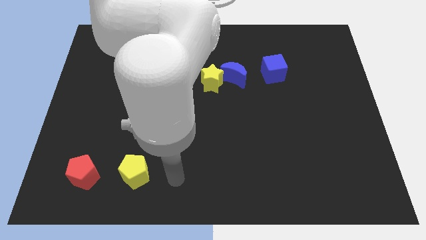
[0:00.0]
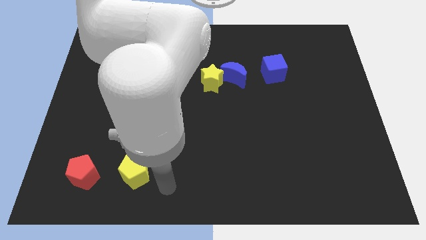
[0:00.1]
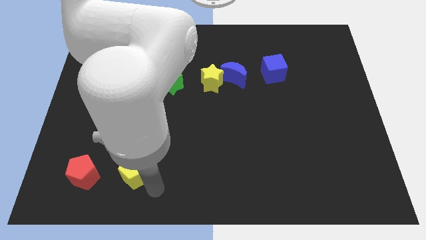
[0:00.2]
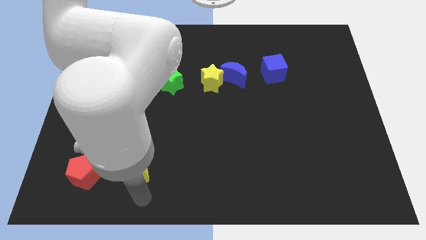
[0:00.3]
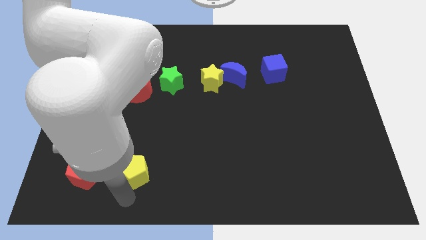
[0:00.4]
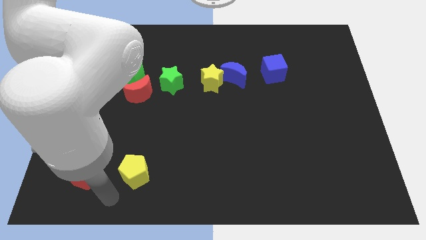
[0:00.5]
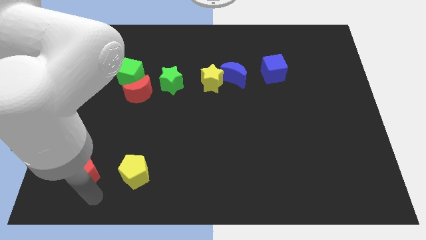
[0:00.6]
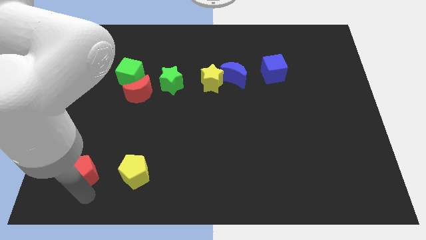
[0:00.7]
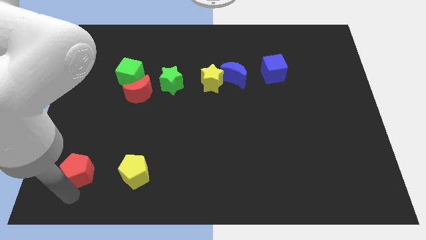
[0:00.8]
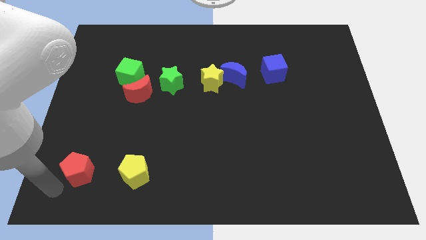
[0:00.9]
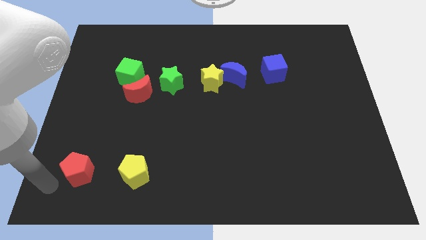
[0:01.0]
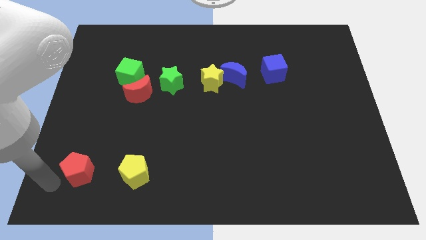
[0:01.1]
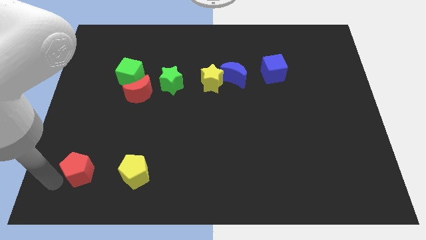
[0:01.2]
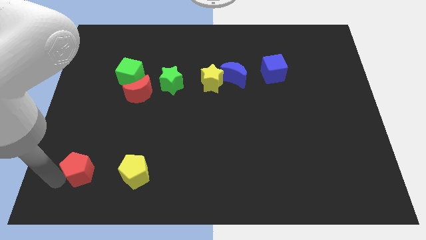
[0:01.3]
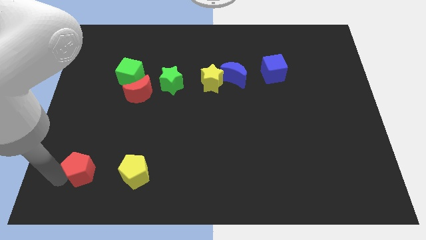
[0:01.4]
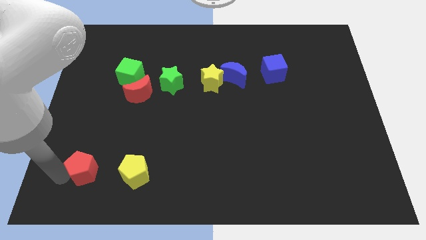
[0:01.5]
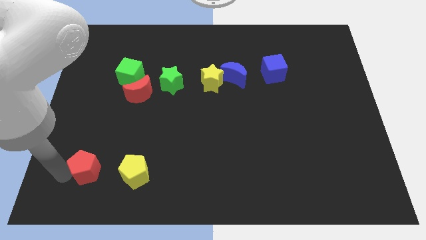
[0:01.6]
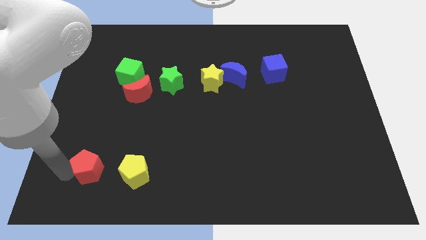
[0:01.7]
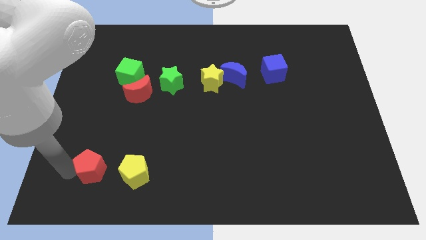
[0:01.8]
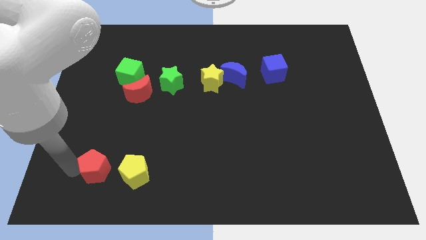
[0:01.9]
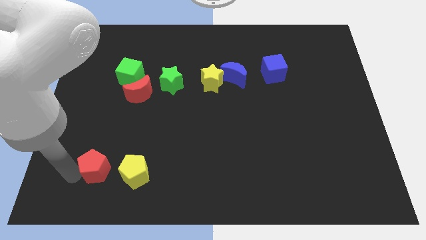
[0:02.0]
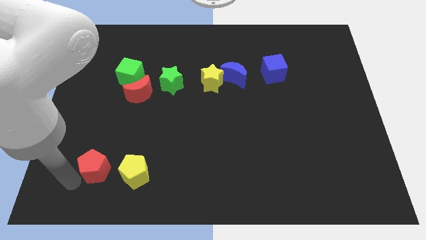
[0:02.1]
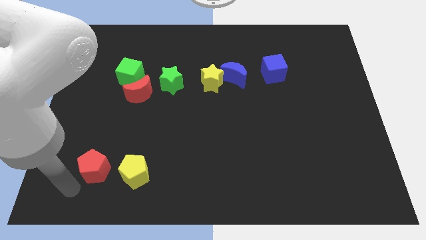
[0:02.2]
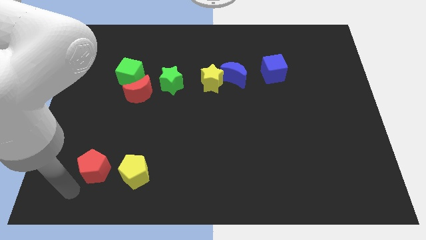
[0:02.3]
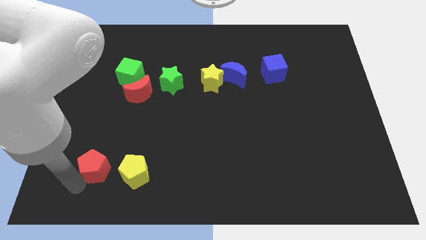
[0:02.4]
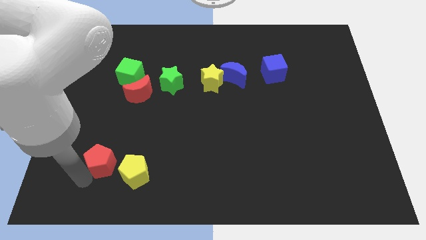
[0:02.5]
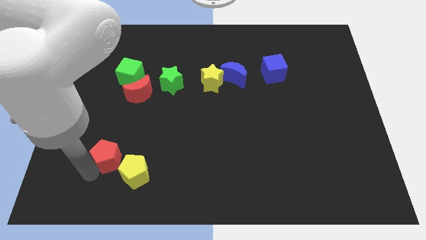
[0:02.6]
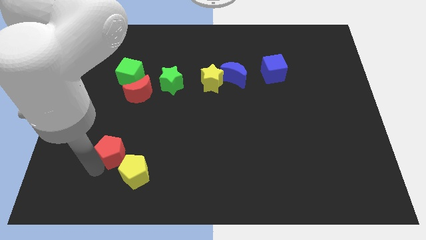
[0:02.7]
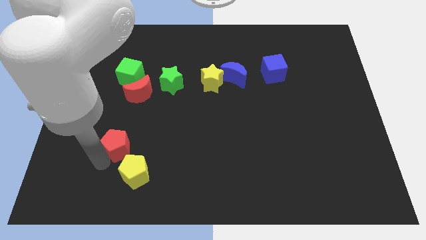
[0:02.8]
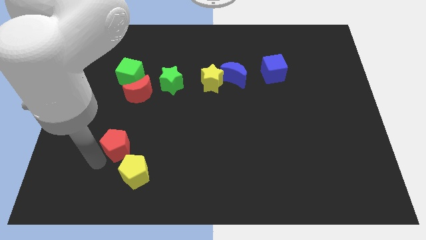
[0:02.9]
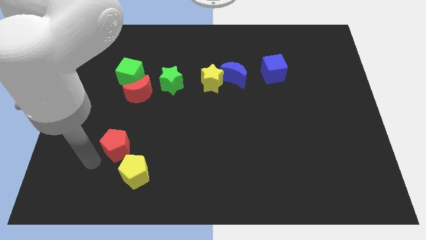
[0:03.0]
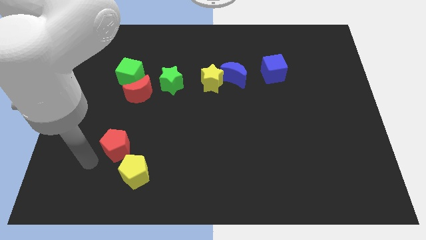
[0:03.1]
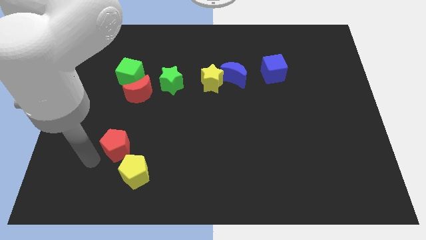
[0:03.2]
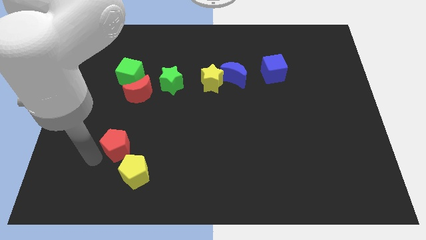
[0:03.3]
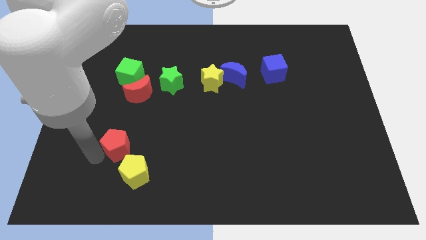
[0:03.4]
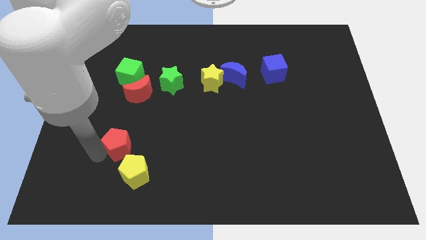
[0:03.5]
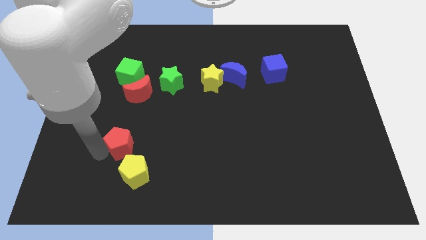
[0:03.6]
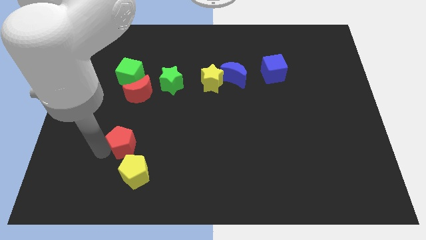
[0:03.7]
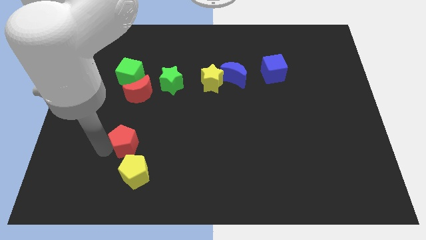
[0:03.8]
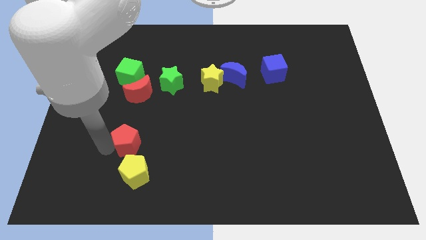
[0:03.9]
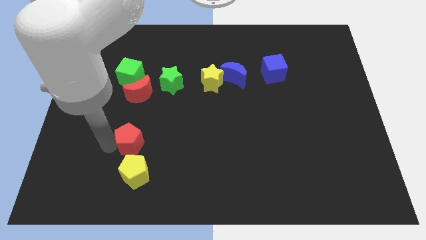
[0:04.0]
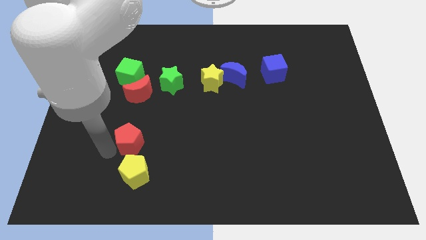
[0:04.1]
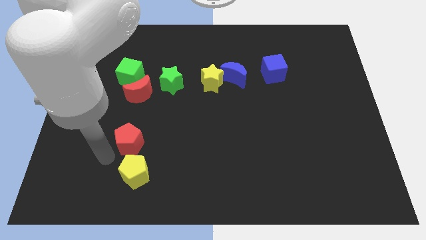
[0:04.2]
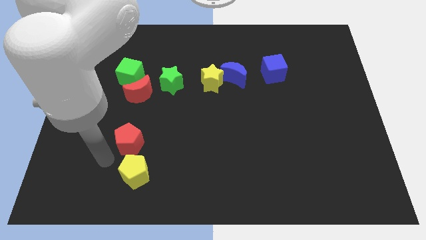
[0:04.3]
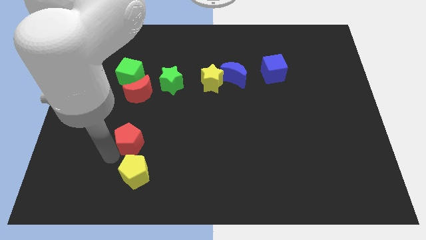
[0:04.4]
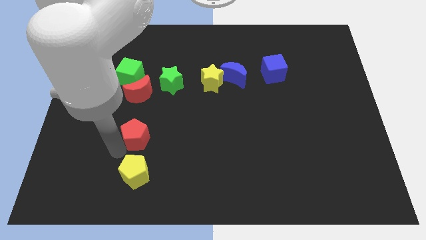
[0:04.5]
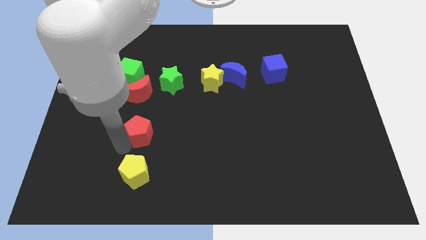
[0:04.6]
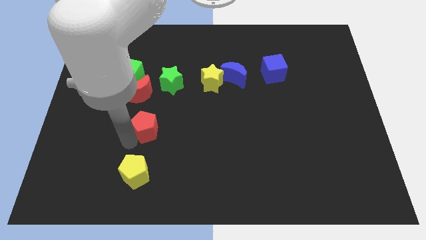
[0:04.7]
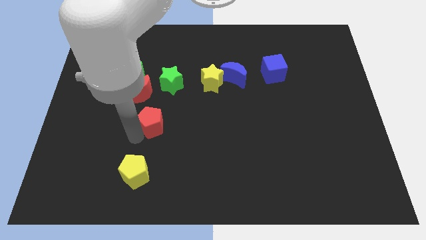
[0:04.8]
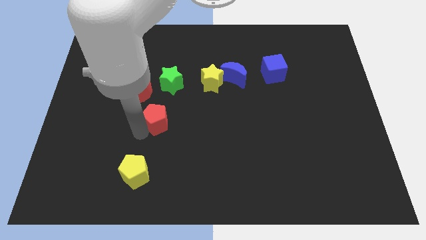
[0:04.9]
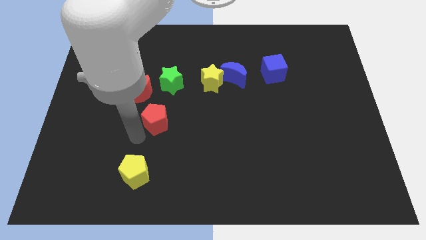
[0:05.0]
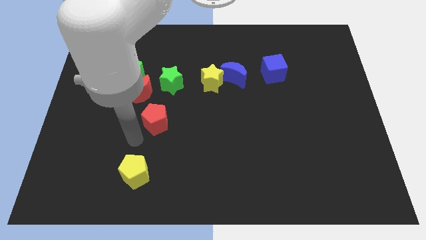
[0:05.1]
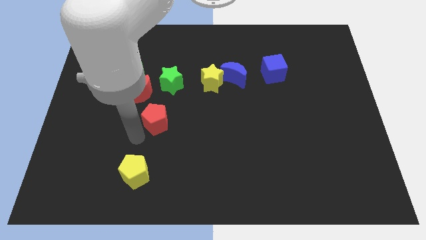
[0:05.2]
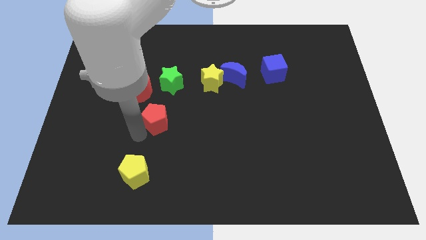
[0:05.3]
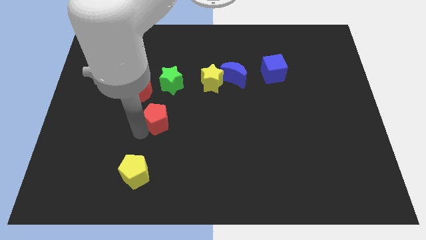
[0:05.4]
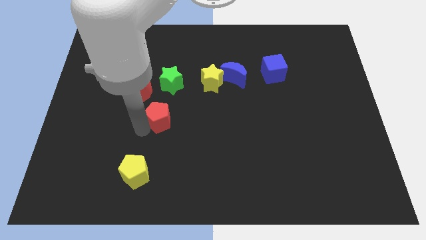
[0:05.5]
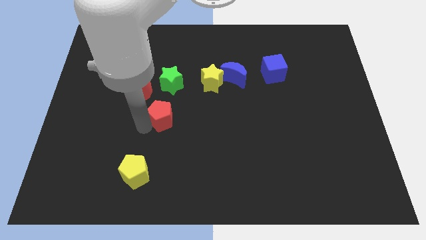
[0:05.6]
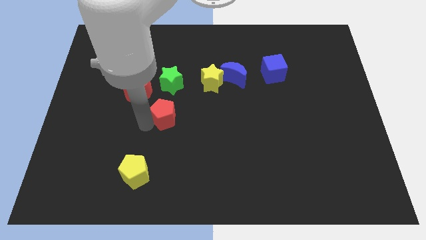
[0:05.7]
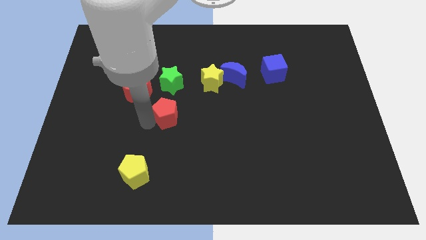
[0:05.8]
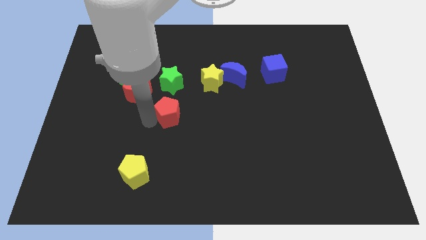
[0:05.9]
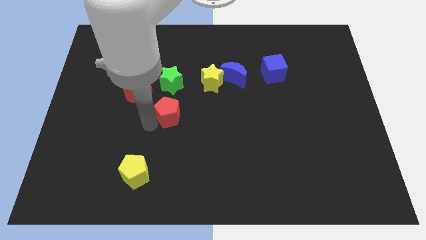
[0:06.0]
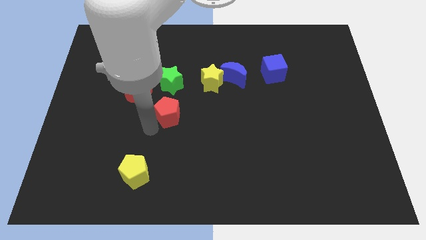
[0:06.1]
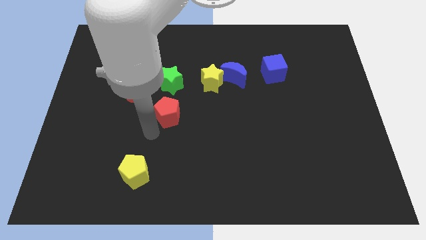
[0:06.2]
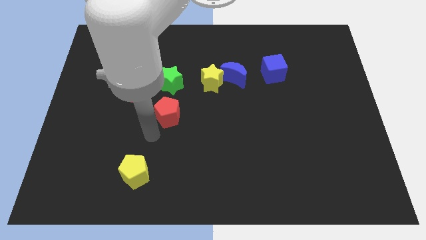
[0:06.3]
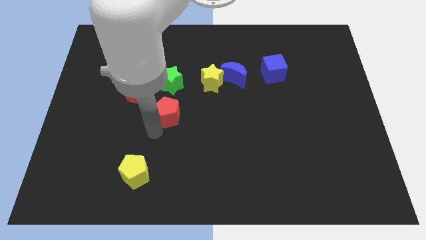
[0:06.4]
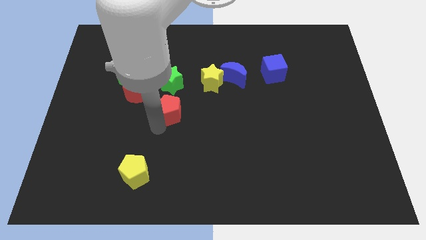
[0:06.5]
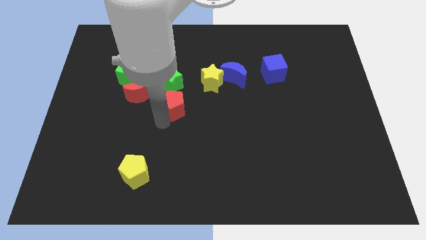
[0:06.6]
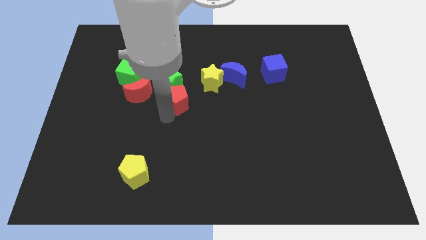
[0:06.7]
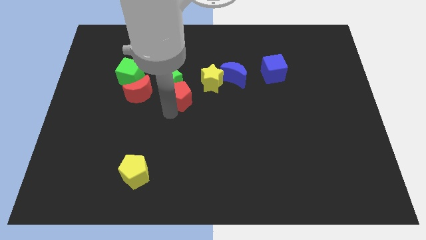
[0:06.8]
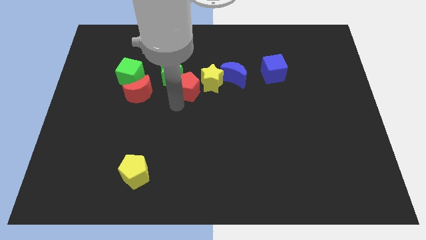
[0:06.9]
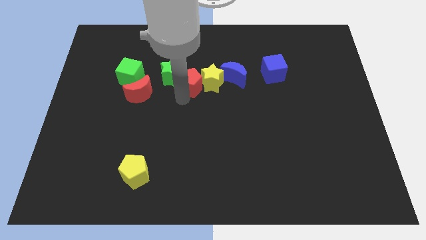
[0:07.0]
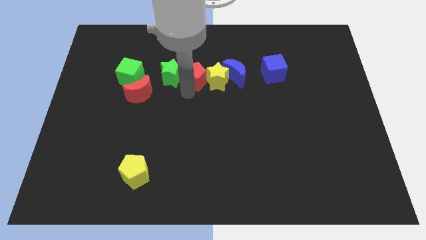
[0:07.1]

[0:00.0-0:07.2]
push the red pentagon to the top right side of the green star

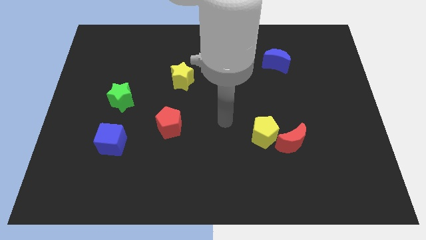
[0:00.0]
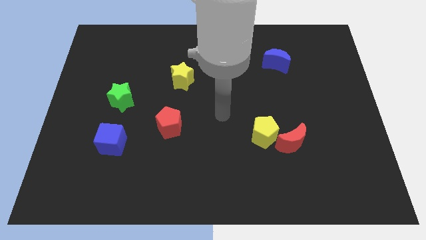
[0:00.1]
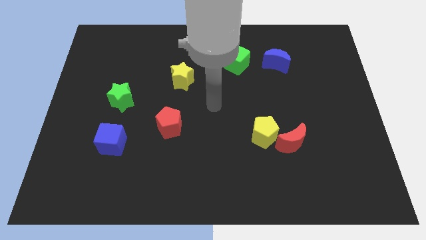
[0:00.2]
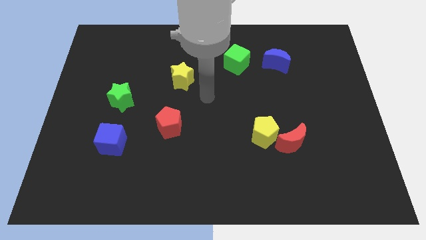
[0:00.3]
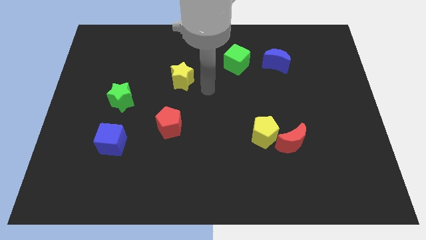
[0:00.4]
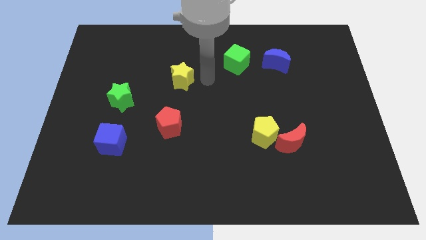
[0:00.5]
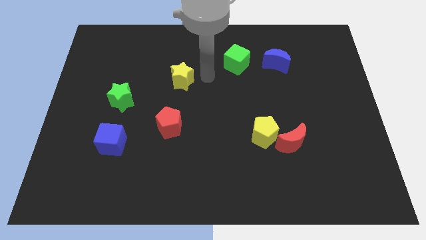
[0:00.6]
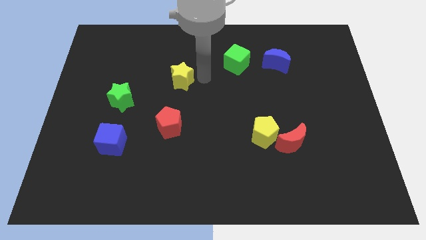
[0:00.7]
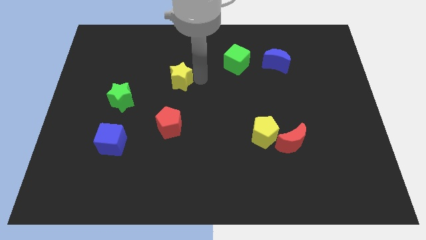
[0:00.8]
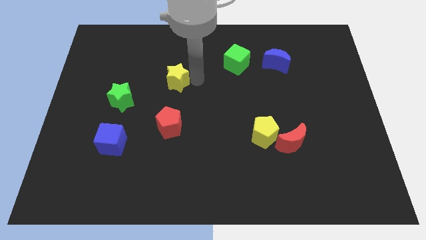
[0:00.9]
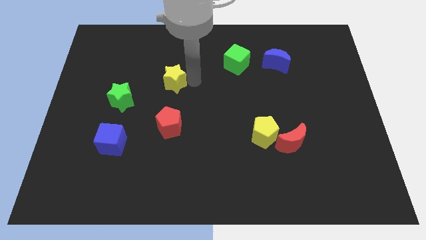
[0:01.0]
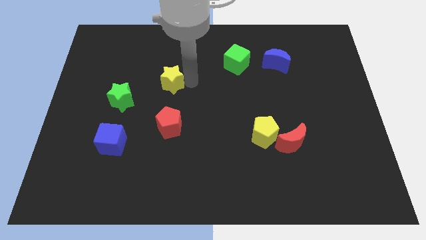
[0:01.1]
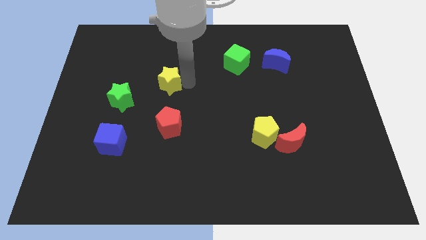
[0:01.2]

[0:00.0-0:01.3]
push the yellow star to the top right of the green star
